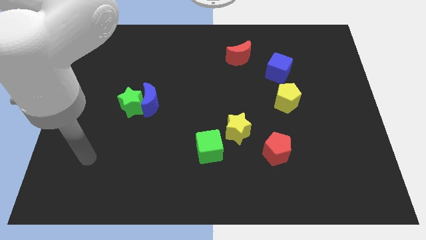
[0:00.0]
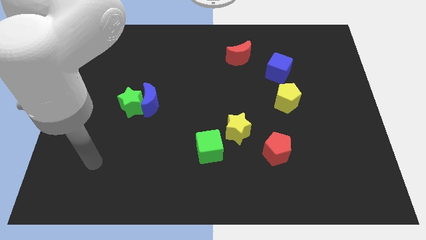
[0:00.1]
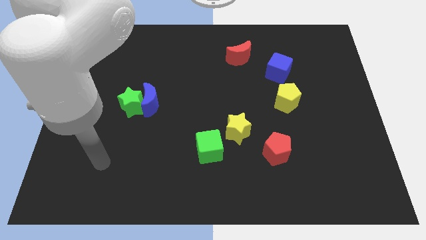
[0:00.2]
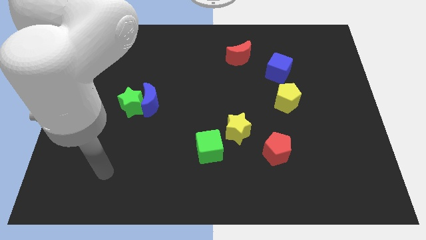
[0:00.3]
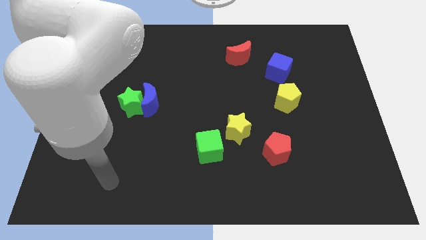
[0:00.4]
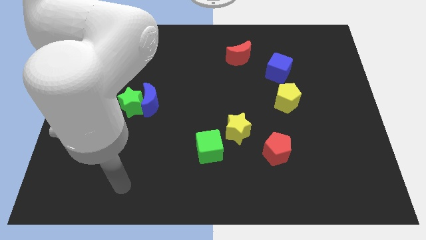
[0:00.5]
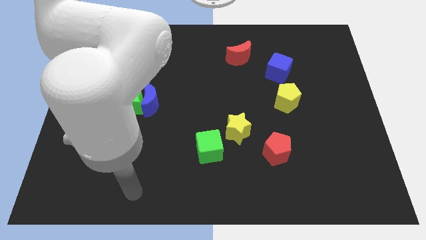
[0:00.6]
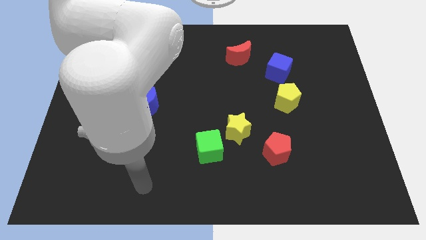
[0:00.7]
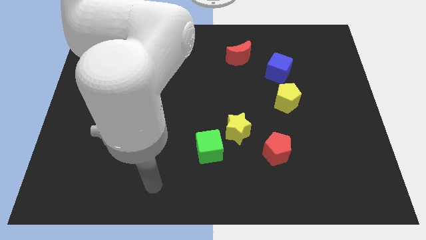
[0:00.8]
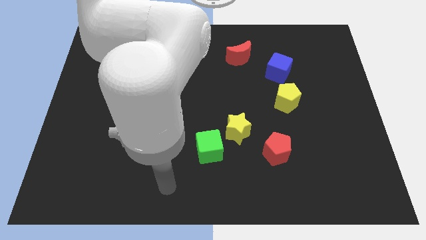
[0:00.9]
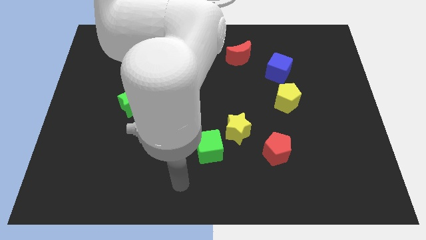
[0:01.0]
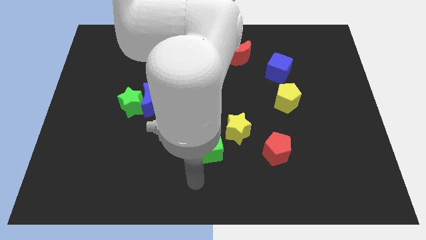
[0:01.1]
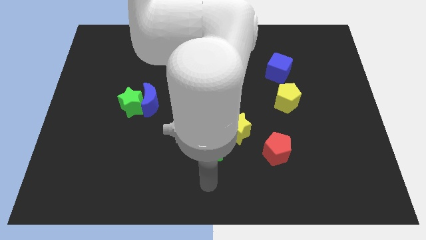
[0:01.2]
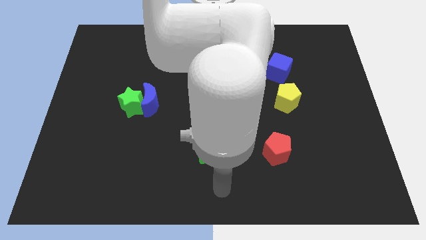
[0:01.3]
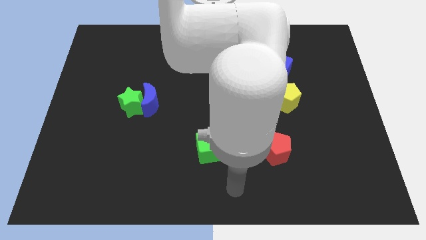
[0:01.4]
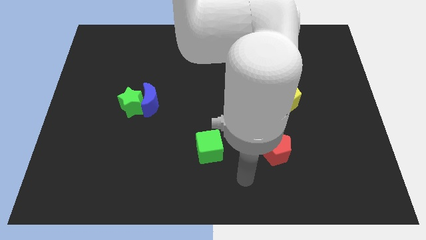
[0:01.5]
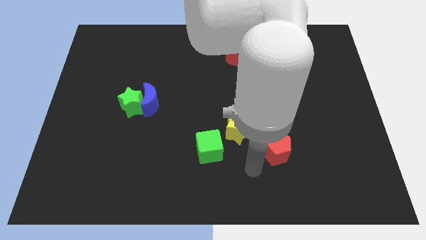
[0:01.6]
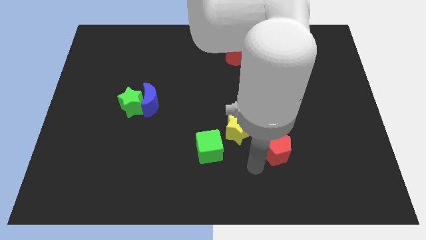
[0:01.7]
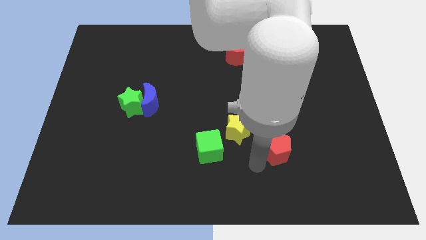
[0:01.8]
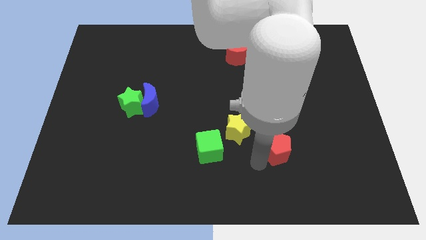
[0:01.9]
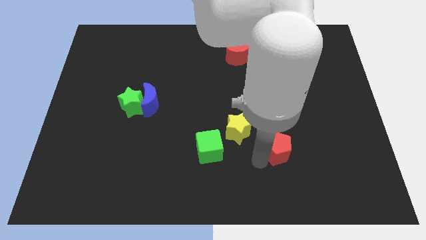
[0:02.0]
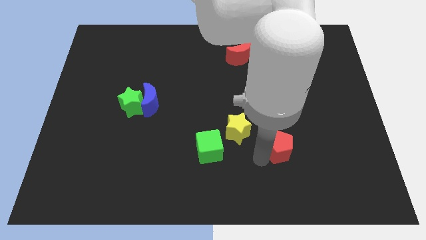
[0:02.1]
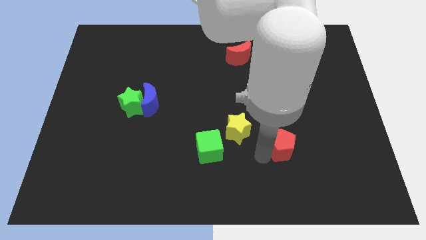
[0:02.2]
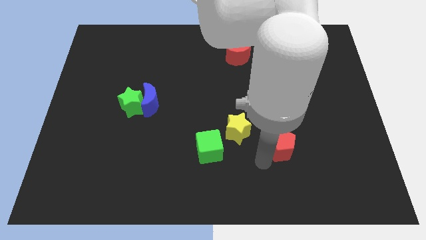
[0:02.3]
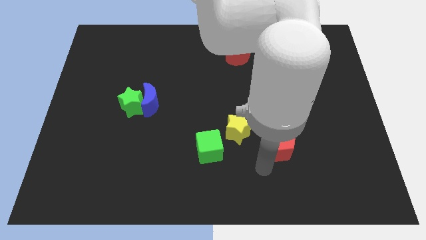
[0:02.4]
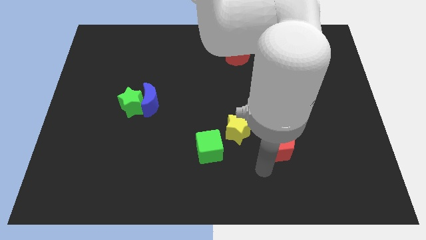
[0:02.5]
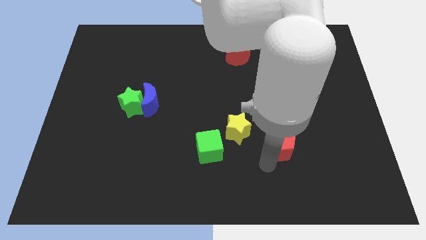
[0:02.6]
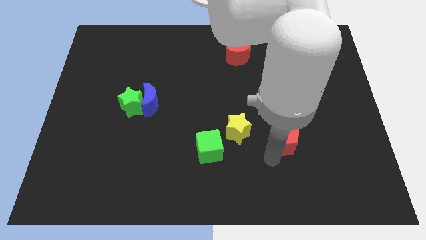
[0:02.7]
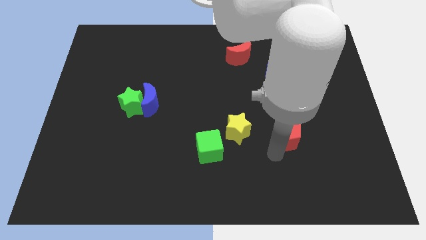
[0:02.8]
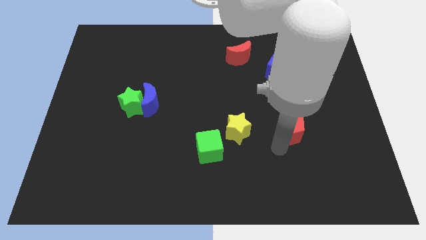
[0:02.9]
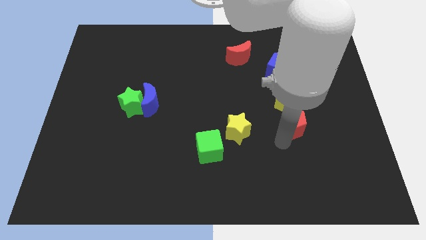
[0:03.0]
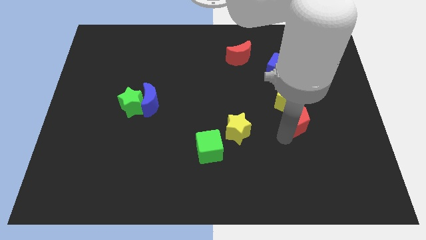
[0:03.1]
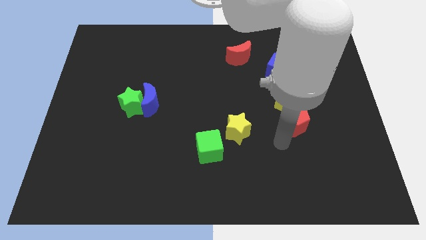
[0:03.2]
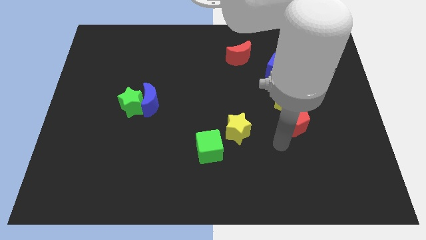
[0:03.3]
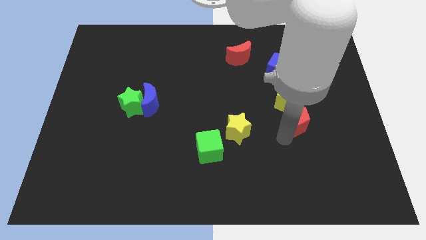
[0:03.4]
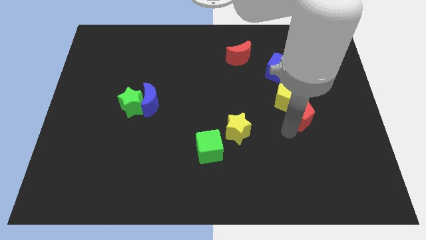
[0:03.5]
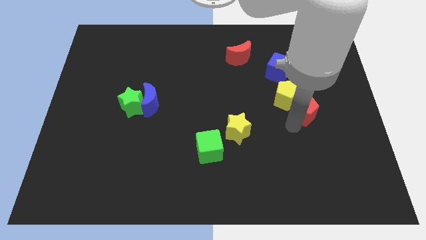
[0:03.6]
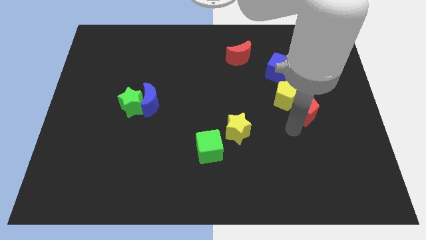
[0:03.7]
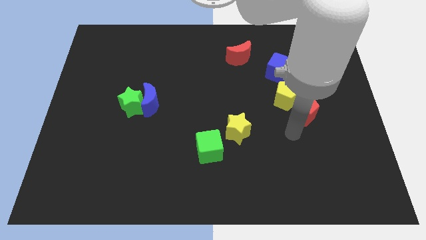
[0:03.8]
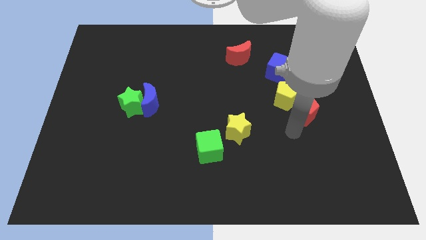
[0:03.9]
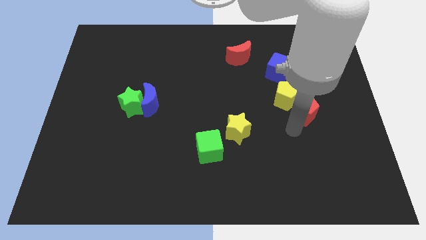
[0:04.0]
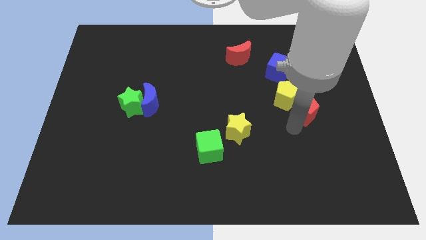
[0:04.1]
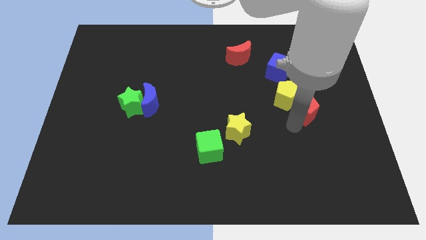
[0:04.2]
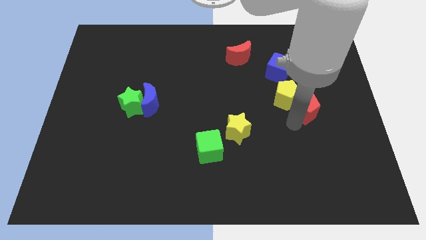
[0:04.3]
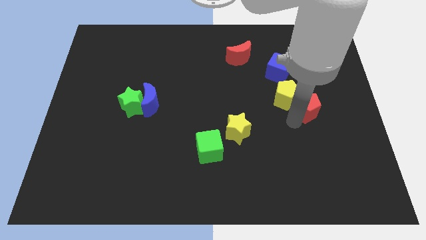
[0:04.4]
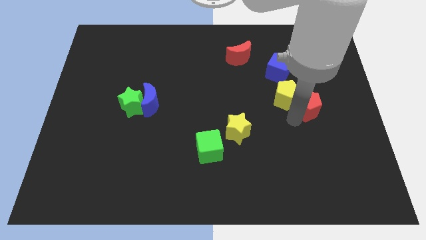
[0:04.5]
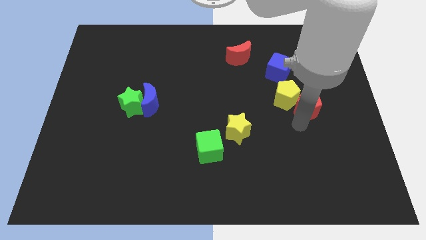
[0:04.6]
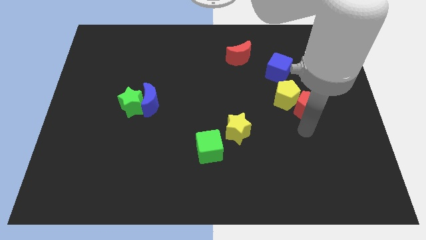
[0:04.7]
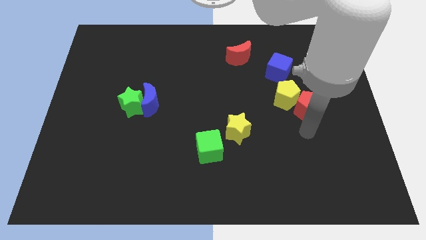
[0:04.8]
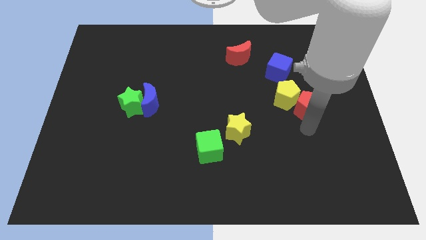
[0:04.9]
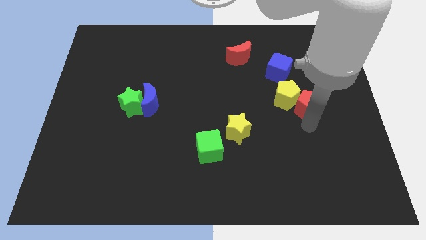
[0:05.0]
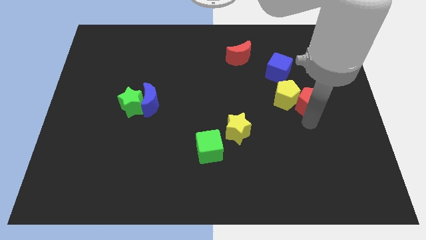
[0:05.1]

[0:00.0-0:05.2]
push the red pentagon to the top right side of the yellow pentagon

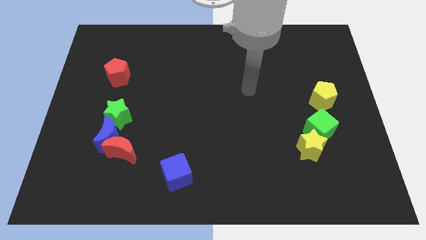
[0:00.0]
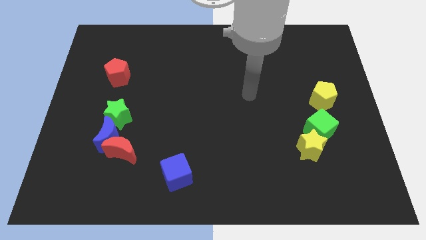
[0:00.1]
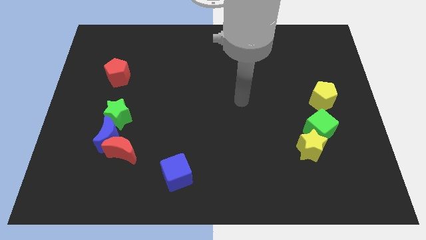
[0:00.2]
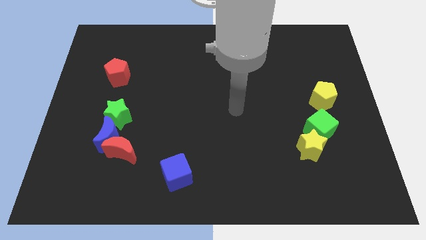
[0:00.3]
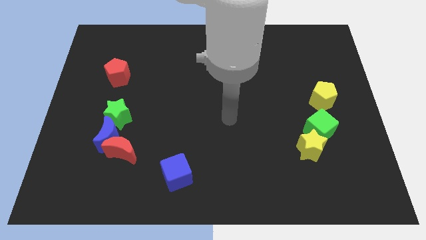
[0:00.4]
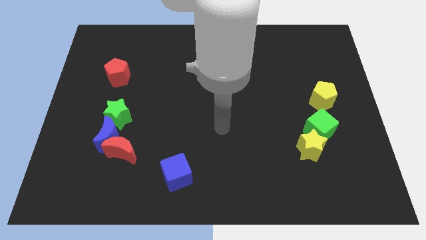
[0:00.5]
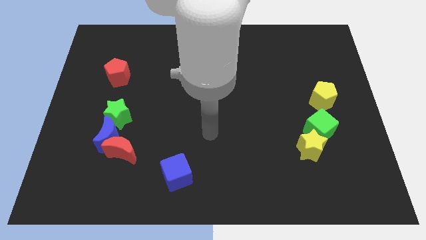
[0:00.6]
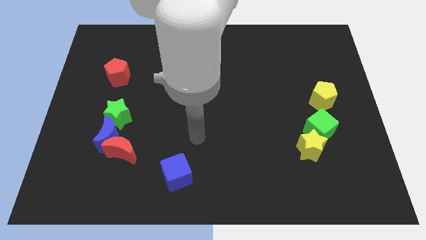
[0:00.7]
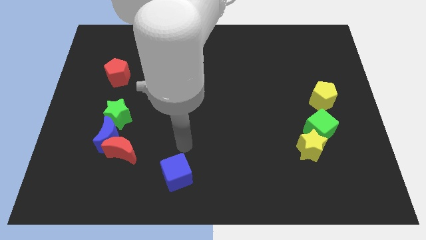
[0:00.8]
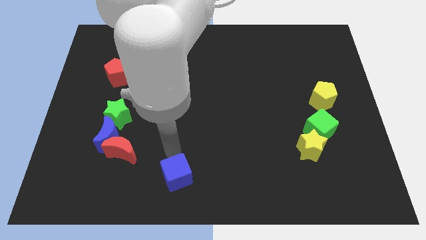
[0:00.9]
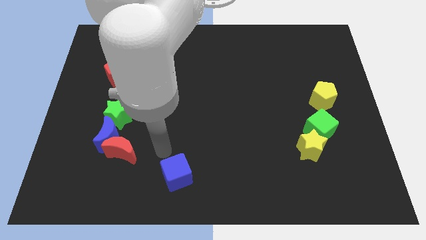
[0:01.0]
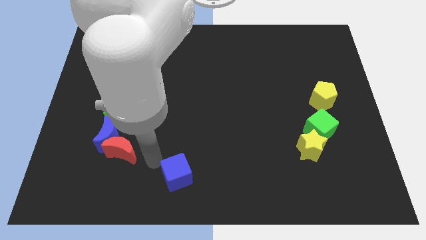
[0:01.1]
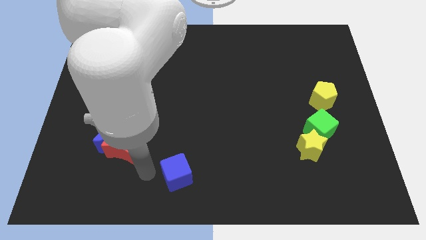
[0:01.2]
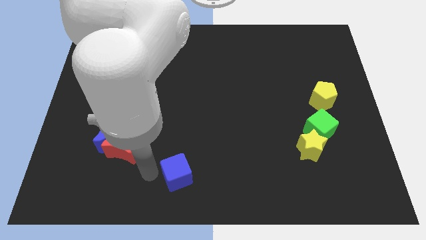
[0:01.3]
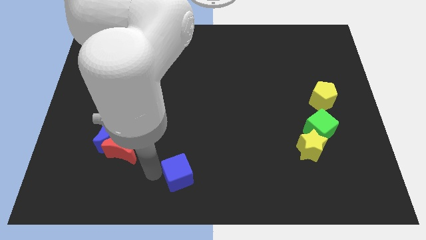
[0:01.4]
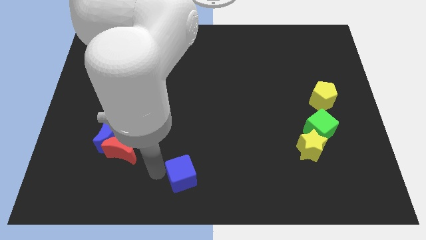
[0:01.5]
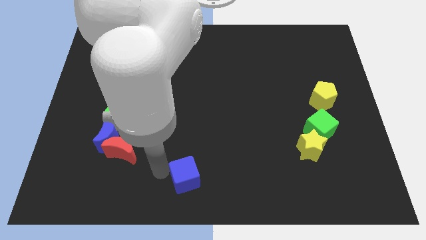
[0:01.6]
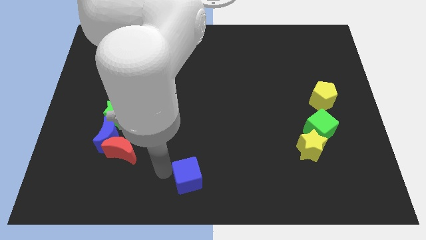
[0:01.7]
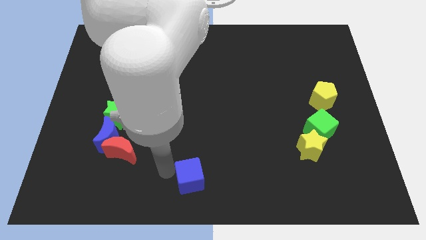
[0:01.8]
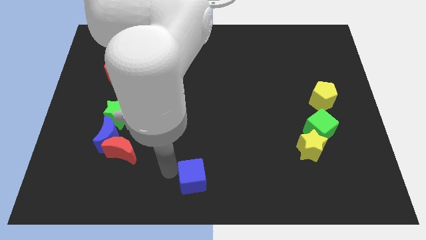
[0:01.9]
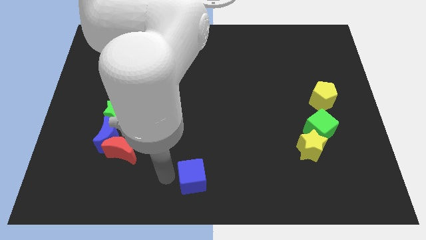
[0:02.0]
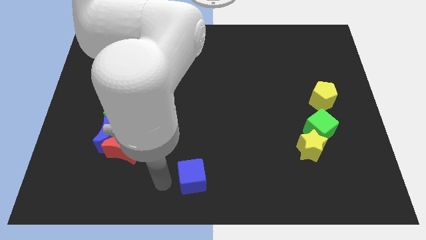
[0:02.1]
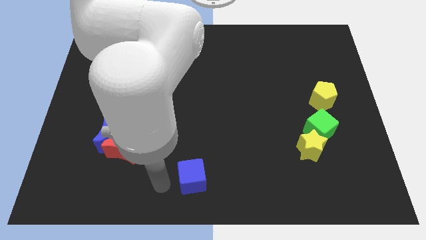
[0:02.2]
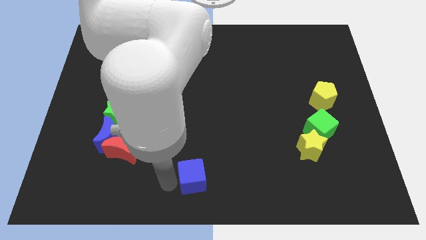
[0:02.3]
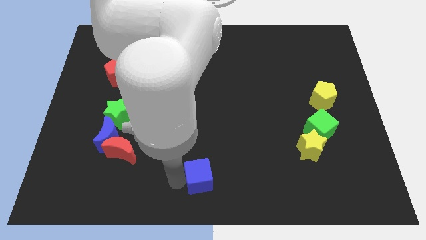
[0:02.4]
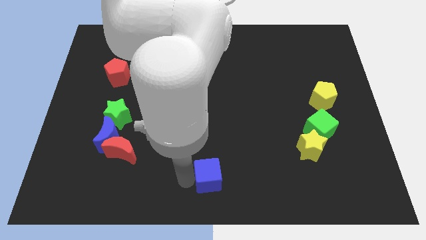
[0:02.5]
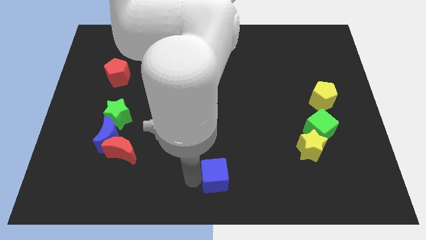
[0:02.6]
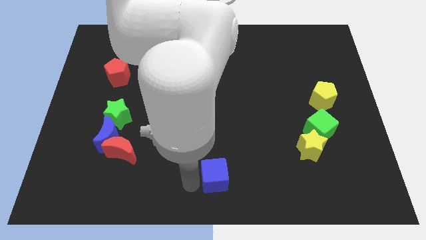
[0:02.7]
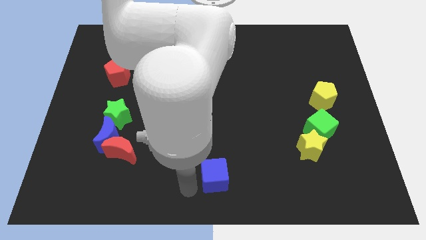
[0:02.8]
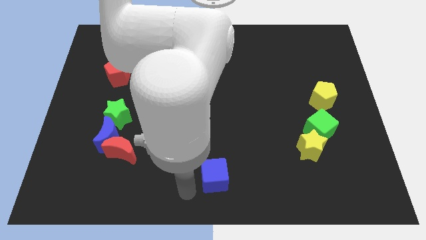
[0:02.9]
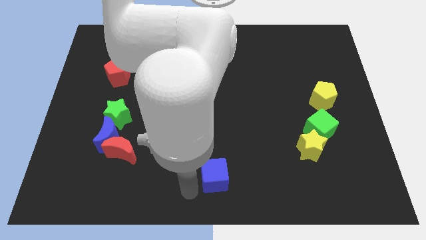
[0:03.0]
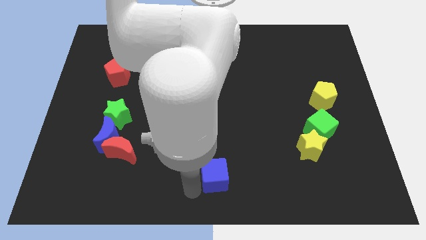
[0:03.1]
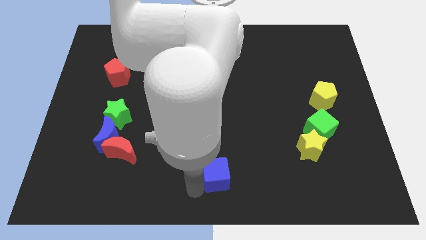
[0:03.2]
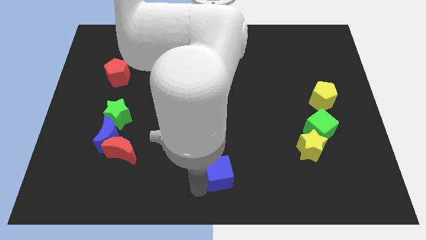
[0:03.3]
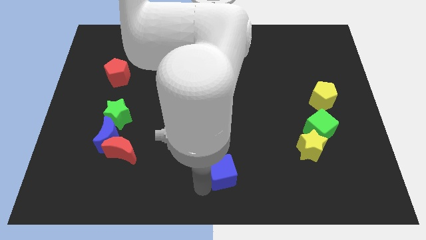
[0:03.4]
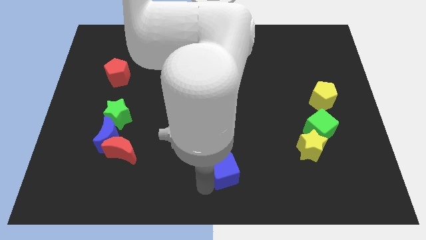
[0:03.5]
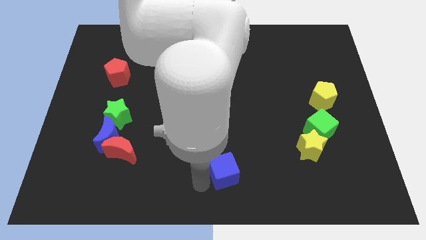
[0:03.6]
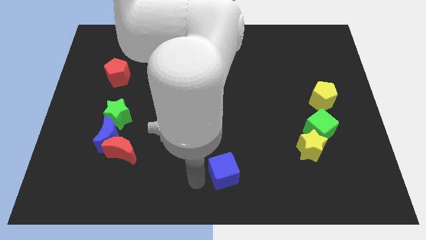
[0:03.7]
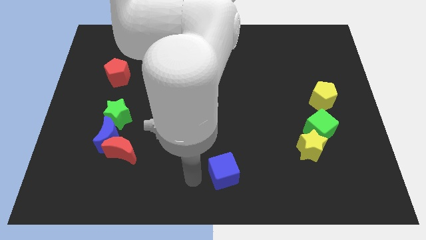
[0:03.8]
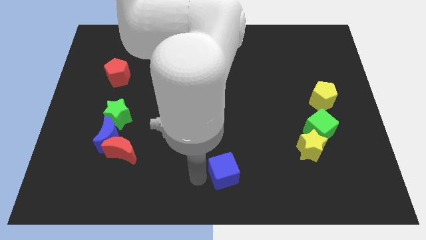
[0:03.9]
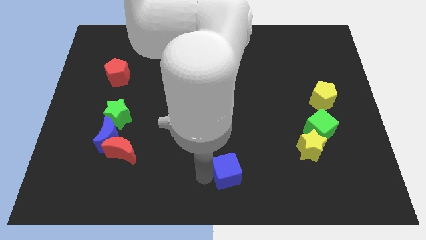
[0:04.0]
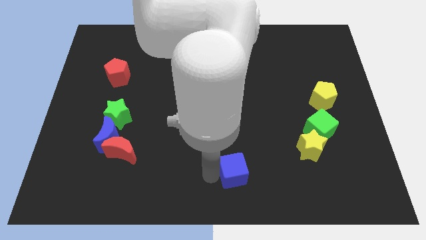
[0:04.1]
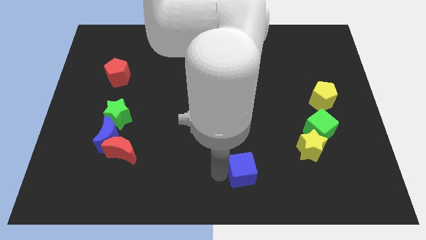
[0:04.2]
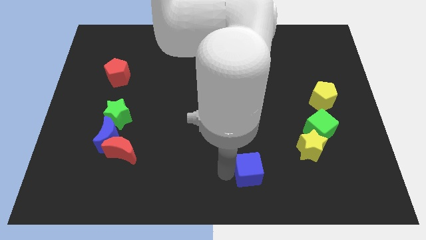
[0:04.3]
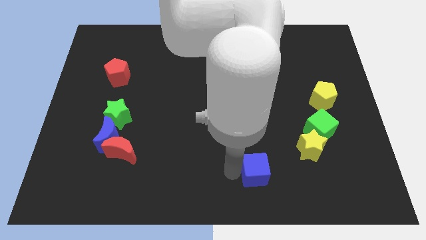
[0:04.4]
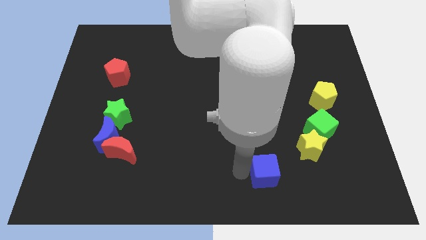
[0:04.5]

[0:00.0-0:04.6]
push the blue cube to the bottom left side of the yellow star
